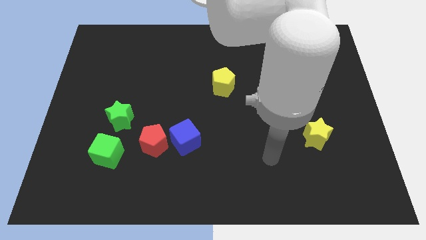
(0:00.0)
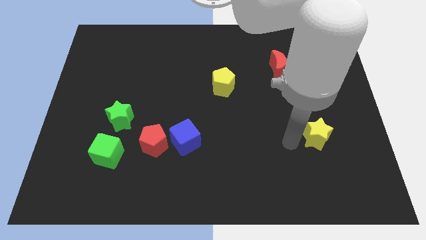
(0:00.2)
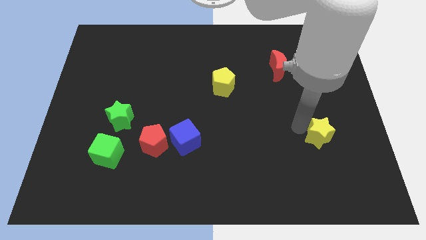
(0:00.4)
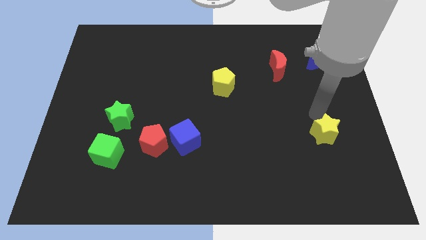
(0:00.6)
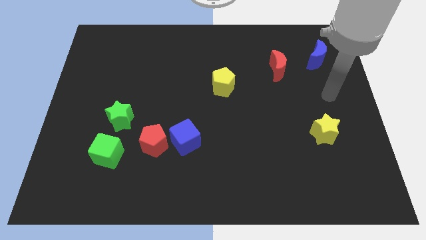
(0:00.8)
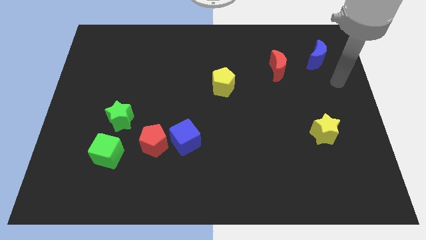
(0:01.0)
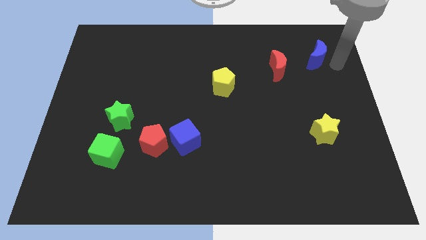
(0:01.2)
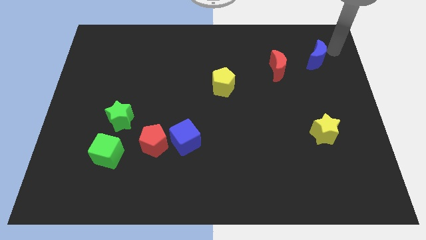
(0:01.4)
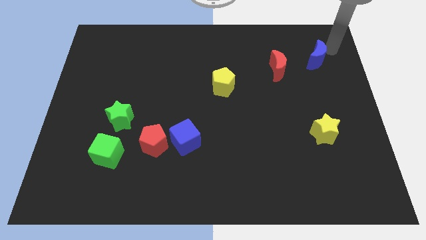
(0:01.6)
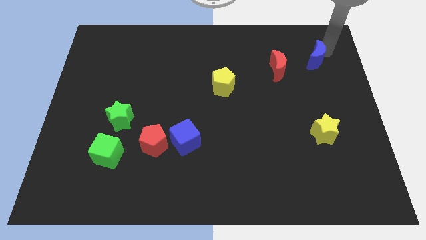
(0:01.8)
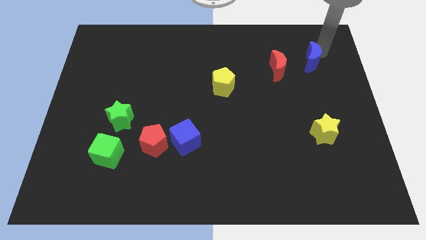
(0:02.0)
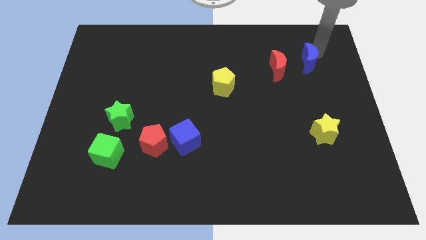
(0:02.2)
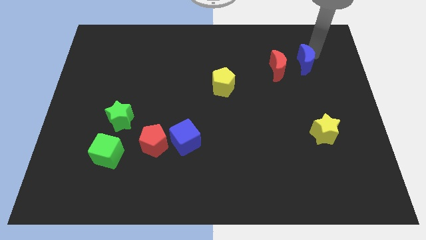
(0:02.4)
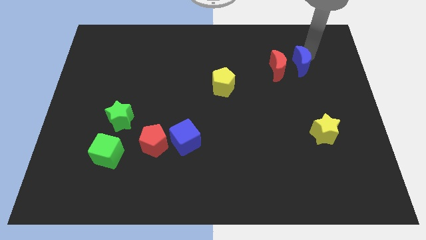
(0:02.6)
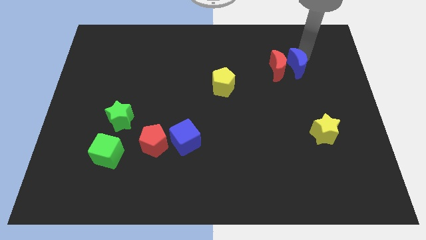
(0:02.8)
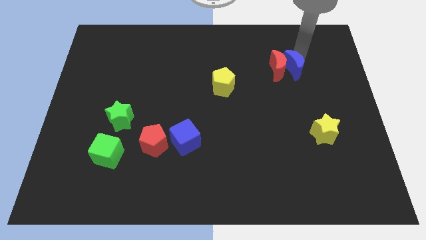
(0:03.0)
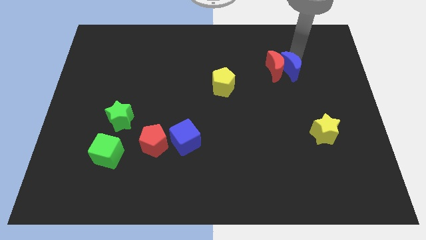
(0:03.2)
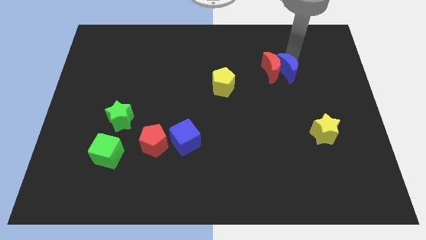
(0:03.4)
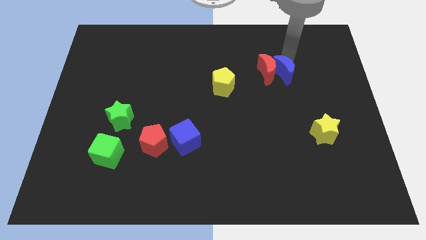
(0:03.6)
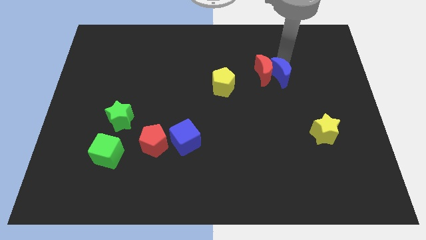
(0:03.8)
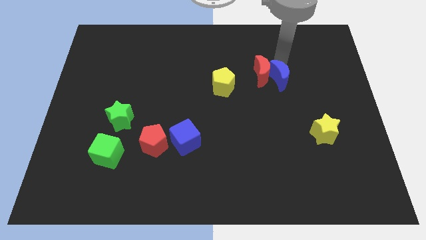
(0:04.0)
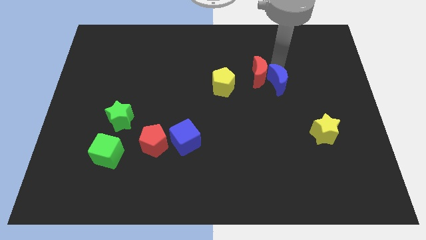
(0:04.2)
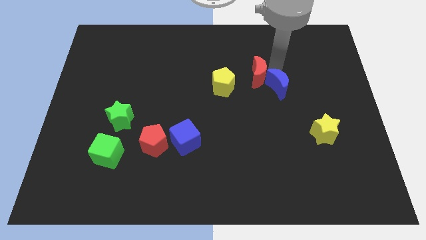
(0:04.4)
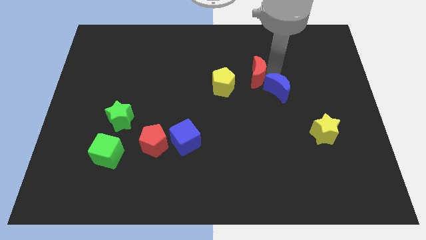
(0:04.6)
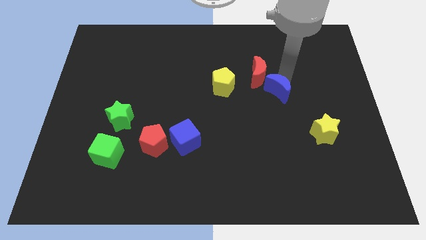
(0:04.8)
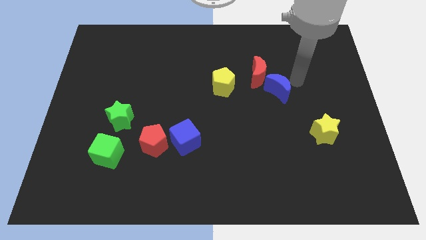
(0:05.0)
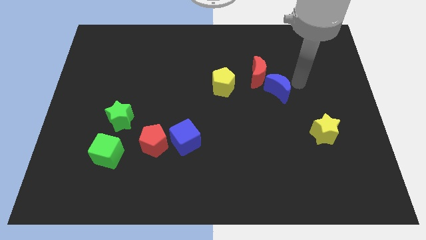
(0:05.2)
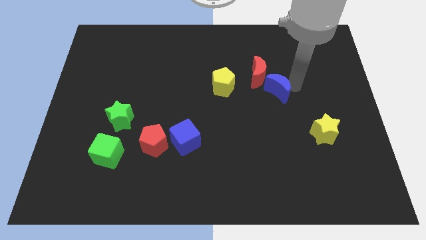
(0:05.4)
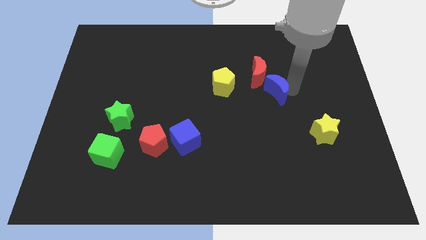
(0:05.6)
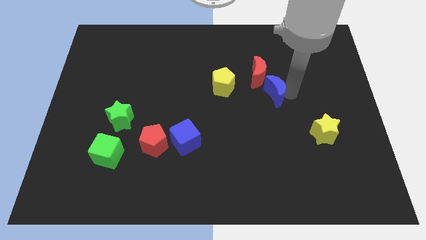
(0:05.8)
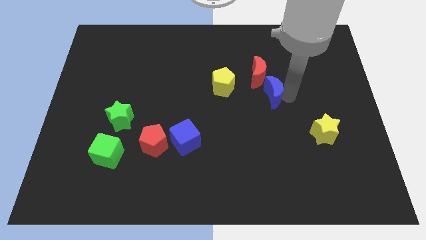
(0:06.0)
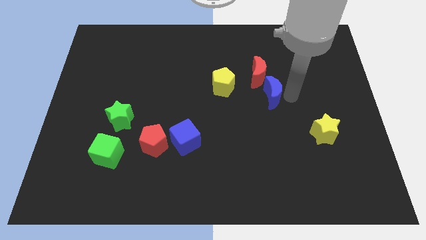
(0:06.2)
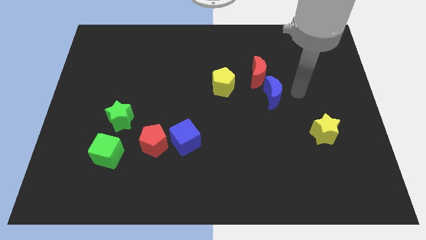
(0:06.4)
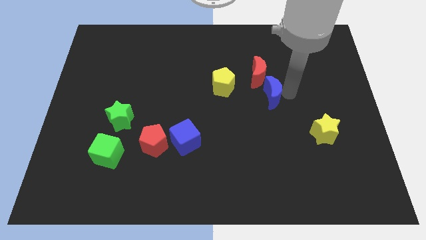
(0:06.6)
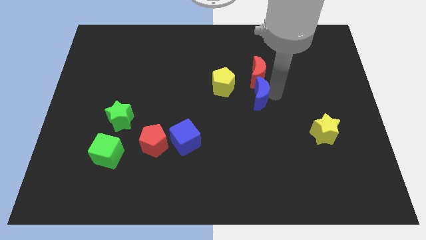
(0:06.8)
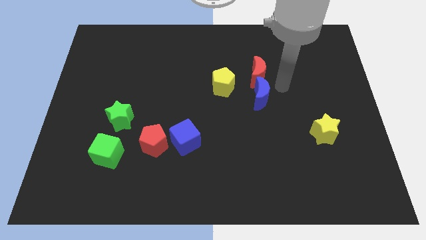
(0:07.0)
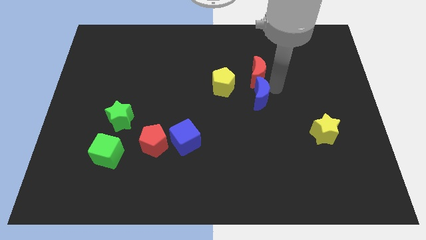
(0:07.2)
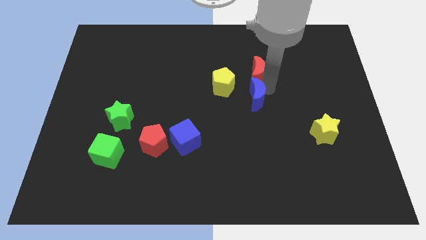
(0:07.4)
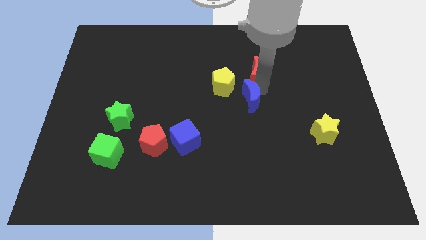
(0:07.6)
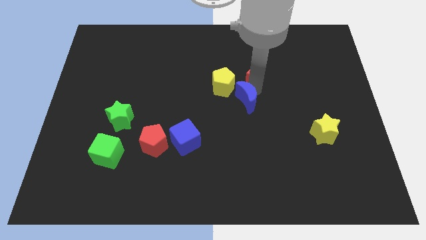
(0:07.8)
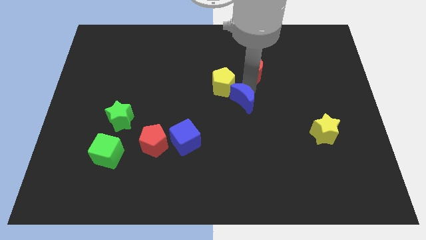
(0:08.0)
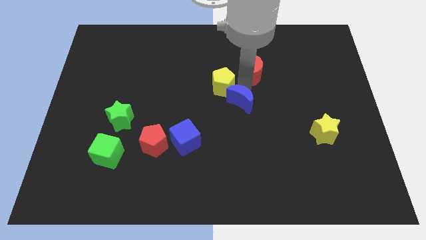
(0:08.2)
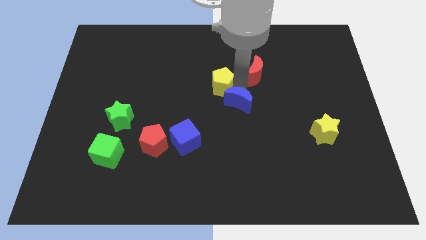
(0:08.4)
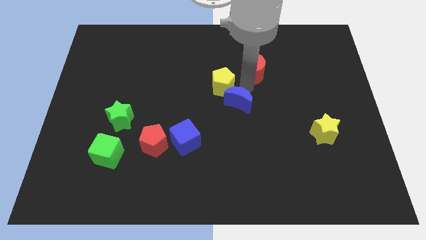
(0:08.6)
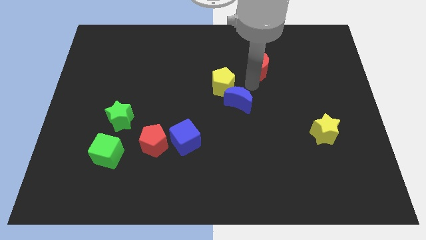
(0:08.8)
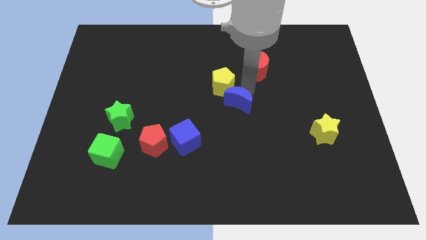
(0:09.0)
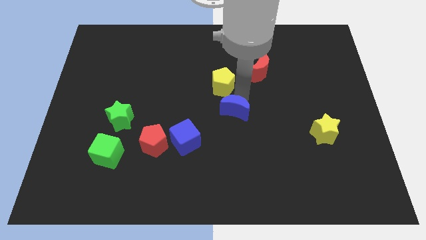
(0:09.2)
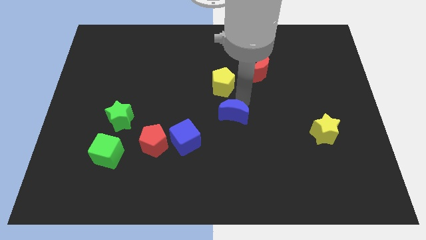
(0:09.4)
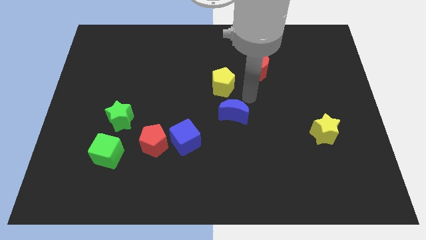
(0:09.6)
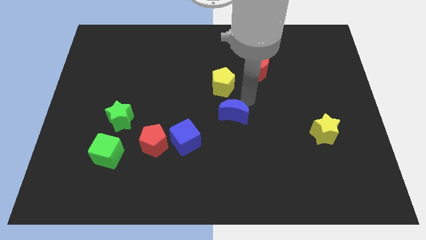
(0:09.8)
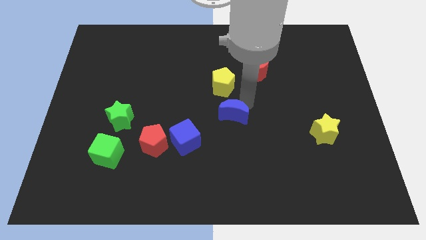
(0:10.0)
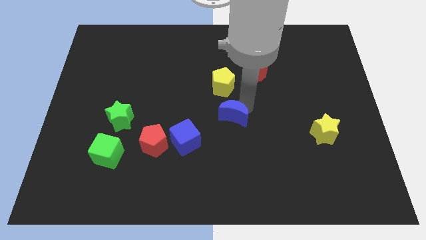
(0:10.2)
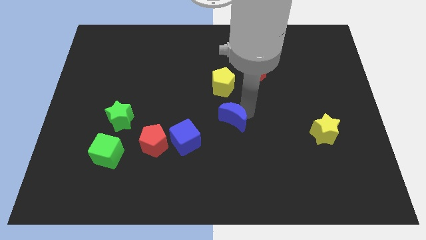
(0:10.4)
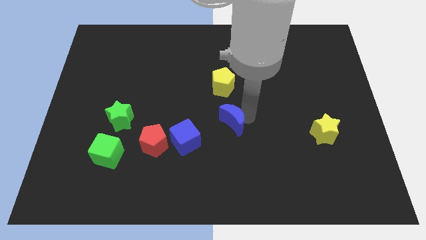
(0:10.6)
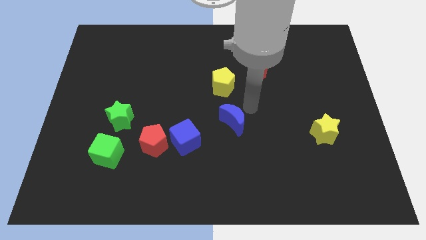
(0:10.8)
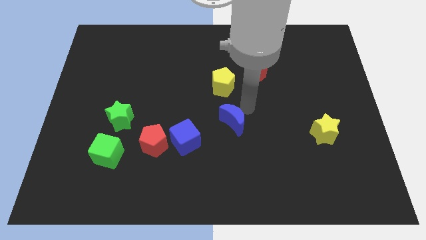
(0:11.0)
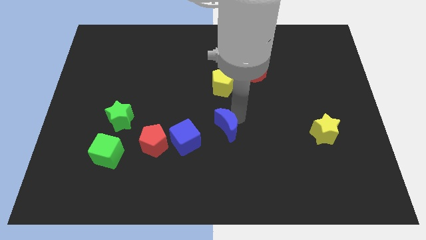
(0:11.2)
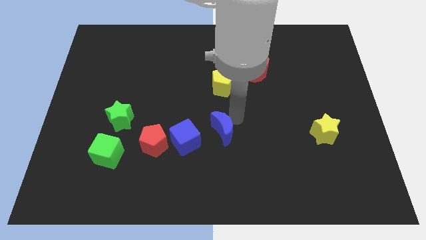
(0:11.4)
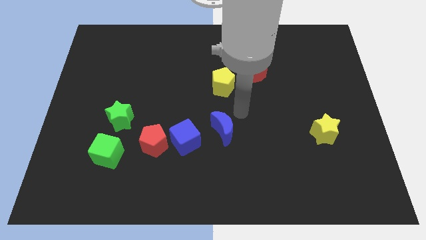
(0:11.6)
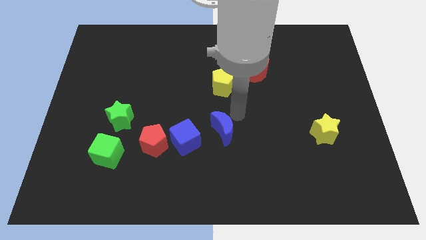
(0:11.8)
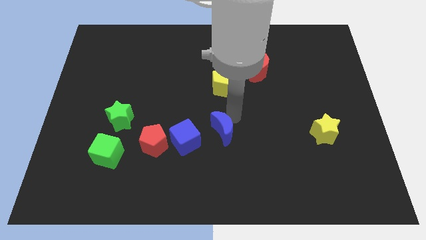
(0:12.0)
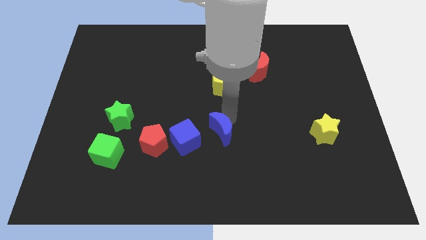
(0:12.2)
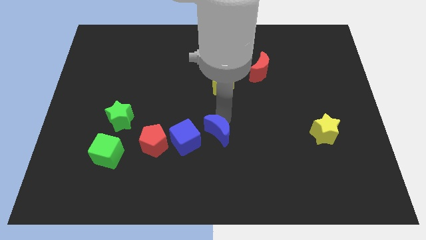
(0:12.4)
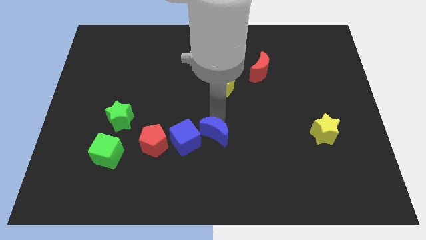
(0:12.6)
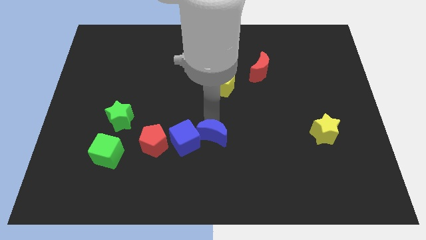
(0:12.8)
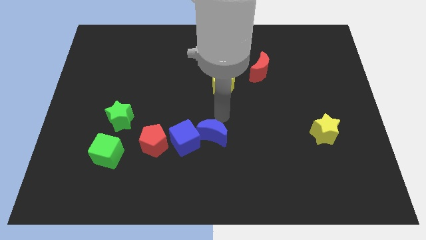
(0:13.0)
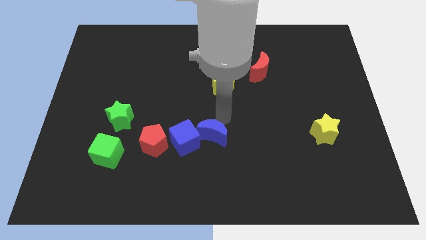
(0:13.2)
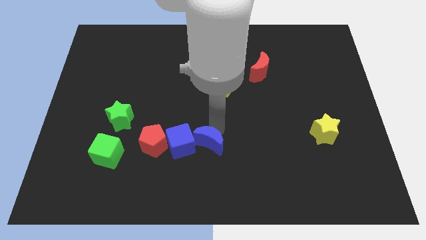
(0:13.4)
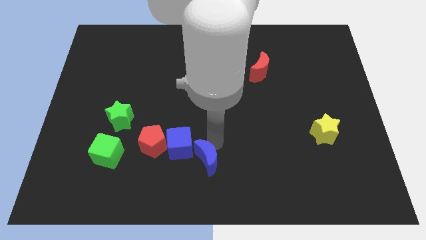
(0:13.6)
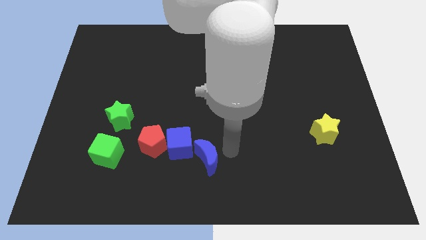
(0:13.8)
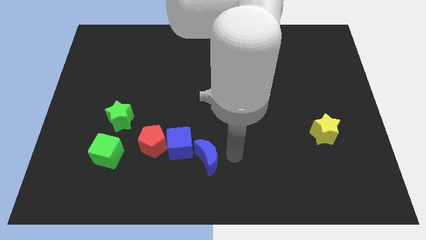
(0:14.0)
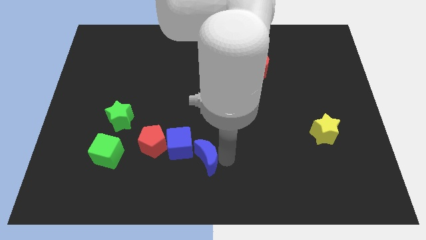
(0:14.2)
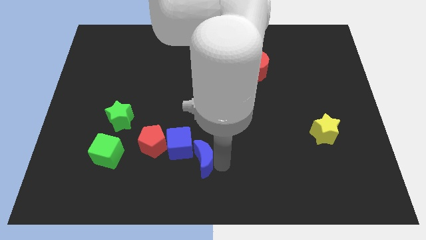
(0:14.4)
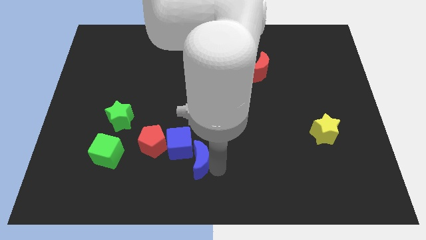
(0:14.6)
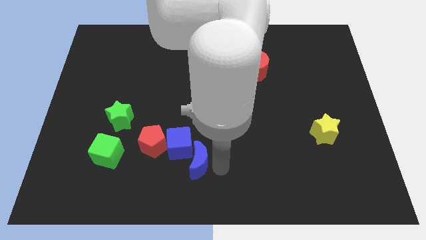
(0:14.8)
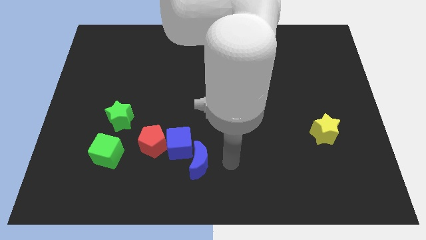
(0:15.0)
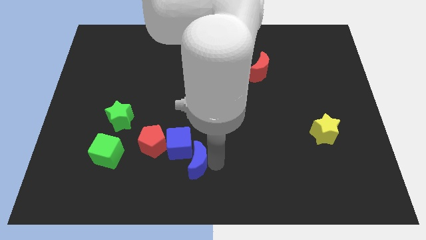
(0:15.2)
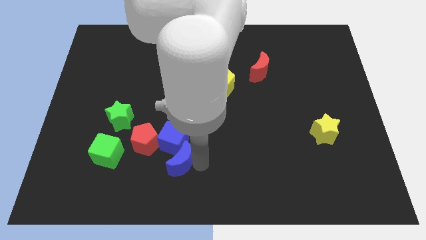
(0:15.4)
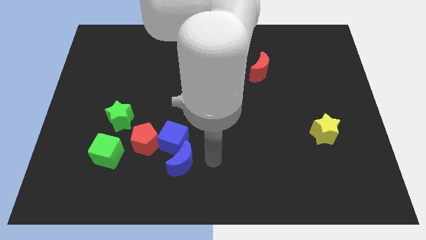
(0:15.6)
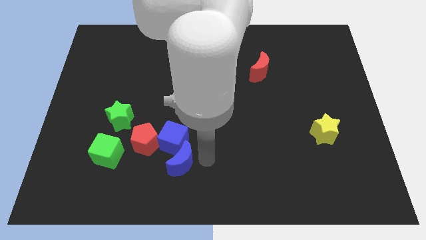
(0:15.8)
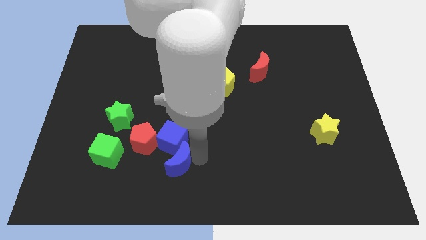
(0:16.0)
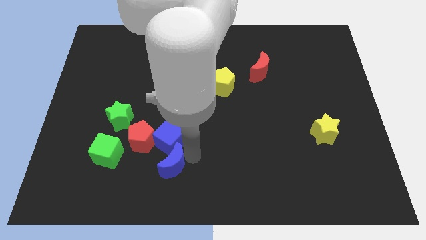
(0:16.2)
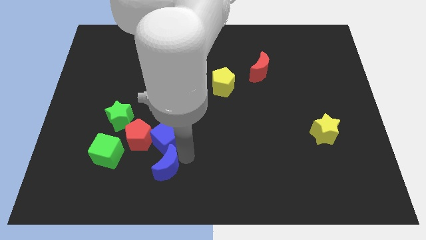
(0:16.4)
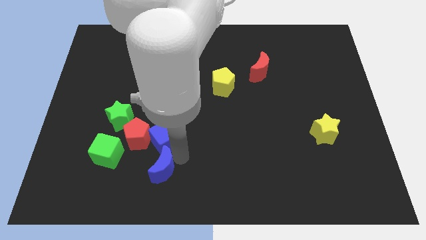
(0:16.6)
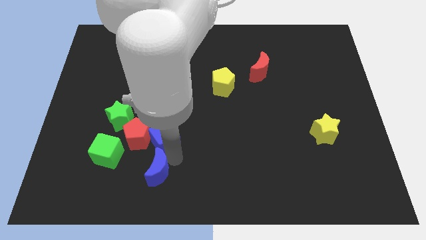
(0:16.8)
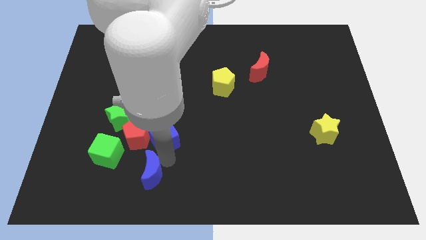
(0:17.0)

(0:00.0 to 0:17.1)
push the blue moon to the bottom right of the green cube
